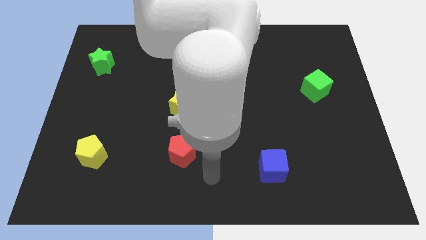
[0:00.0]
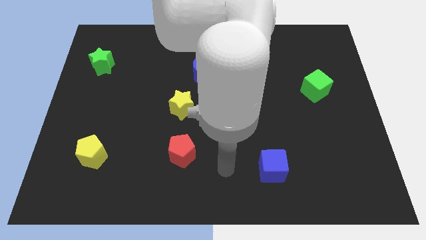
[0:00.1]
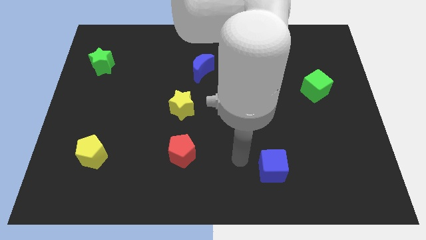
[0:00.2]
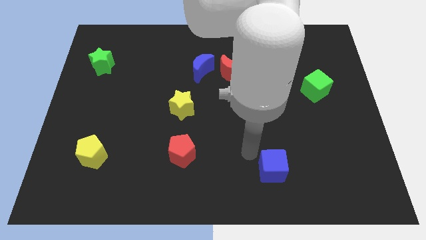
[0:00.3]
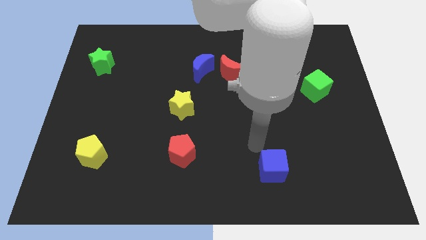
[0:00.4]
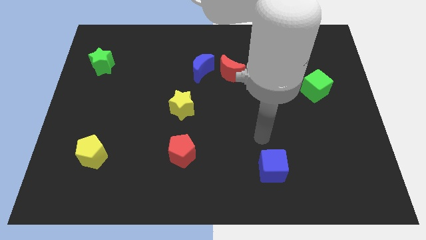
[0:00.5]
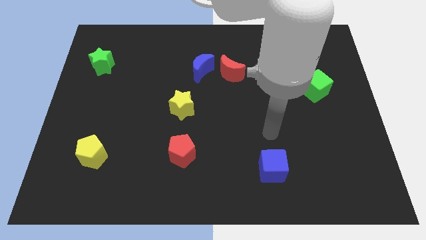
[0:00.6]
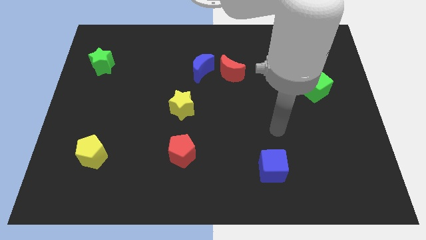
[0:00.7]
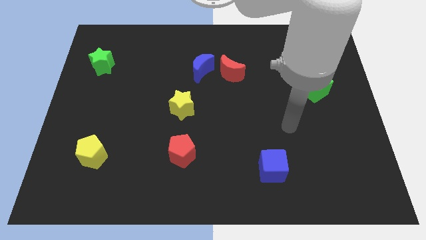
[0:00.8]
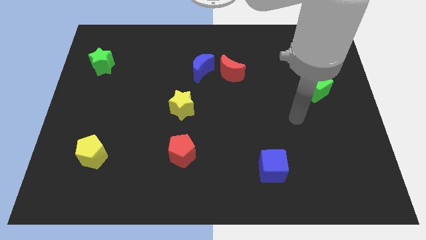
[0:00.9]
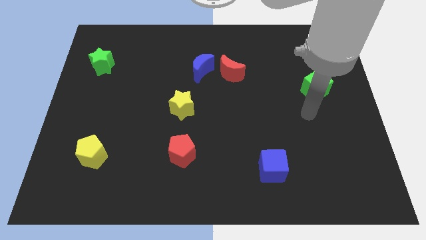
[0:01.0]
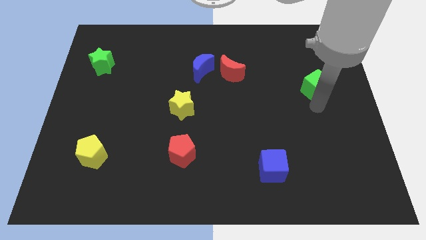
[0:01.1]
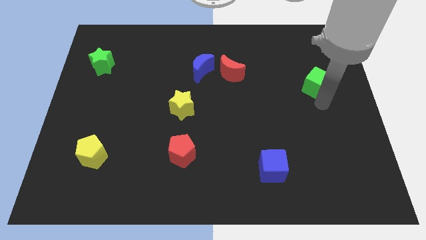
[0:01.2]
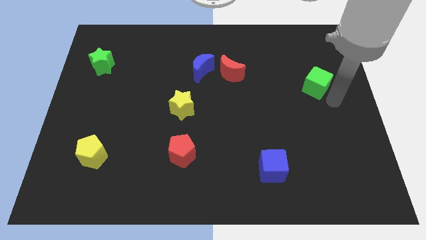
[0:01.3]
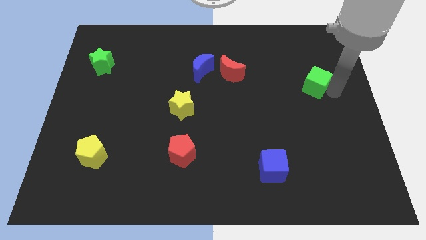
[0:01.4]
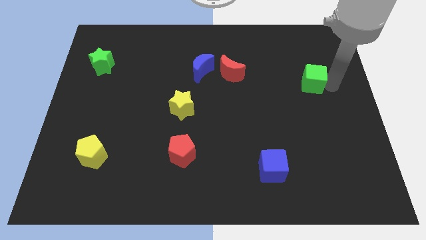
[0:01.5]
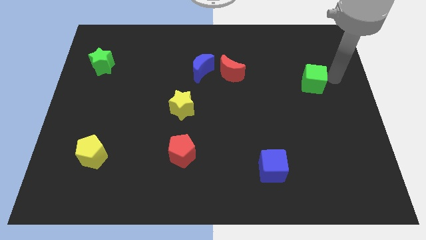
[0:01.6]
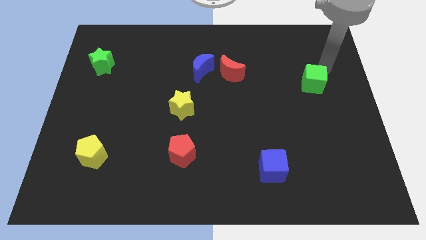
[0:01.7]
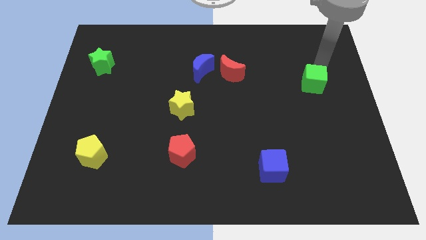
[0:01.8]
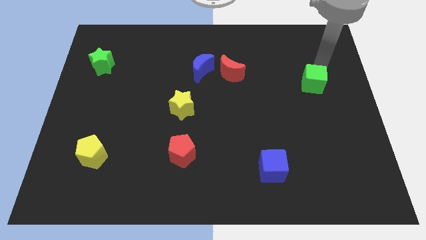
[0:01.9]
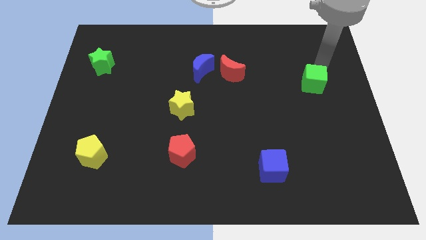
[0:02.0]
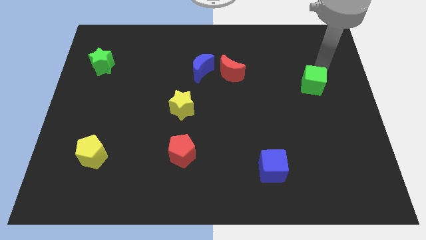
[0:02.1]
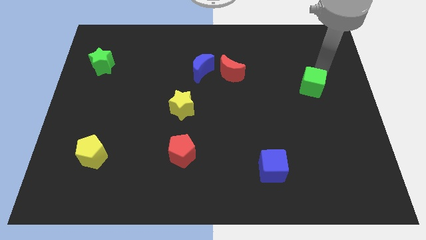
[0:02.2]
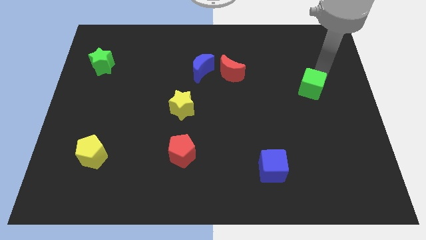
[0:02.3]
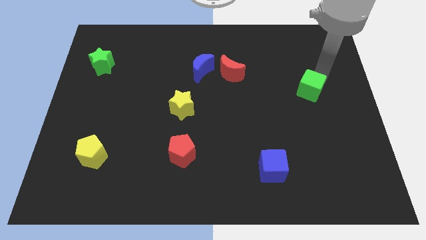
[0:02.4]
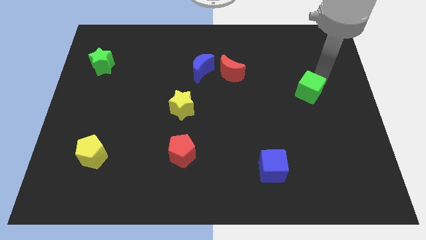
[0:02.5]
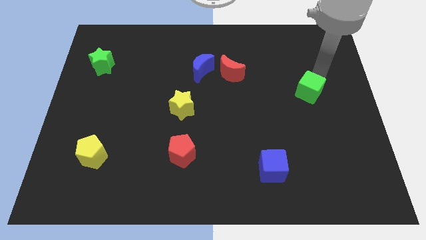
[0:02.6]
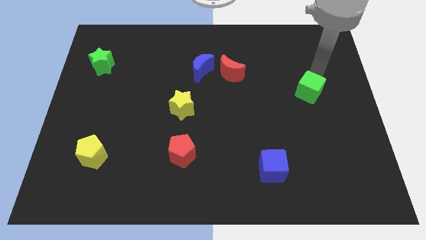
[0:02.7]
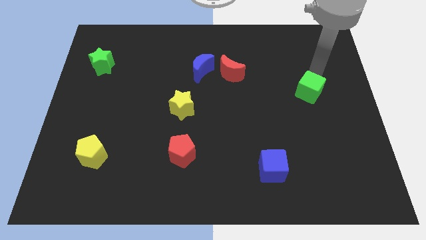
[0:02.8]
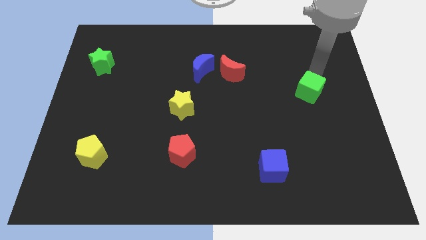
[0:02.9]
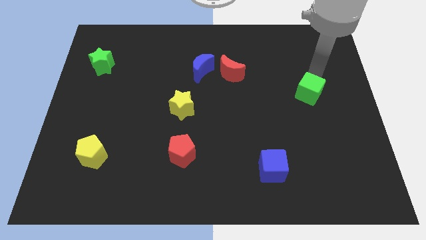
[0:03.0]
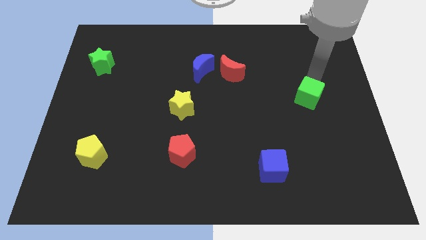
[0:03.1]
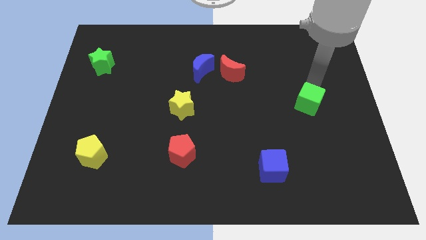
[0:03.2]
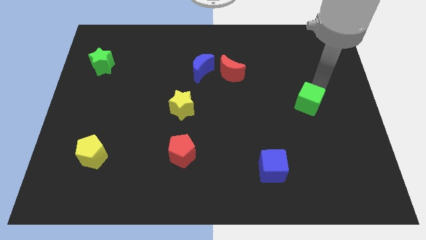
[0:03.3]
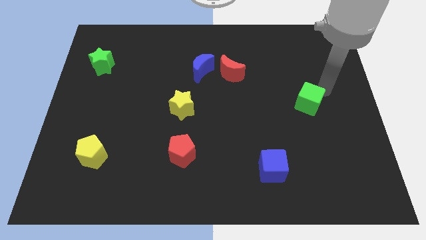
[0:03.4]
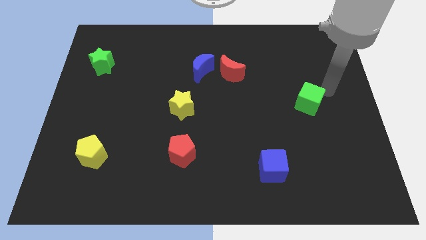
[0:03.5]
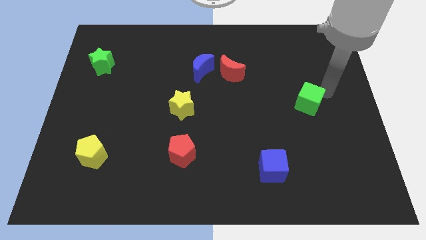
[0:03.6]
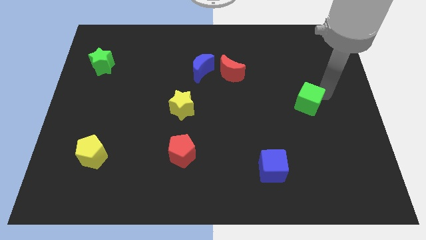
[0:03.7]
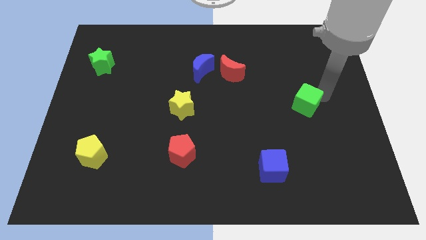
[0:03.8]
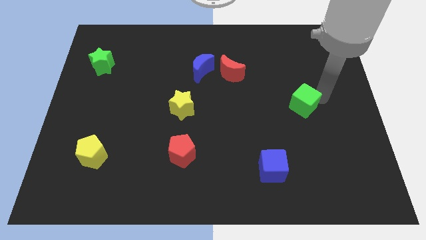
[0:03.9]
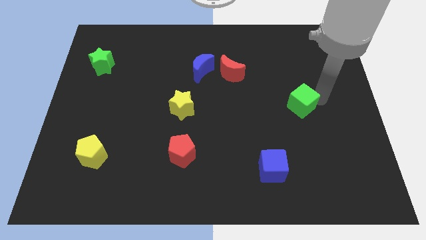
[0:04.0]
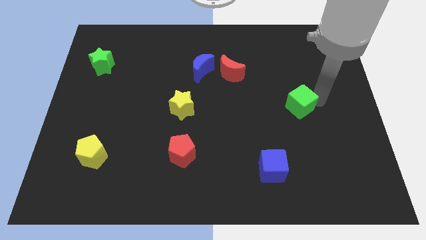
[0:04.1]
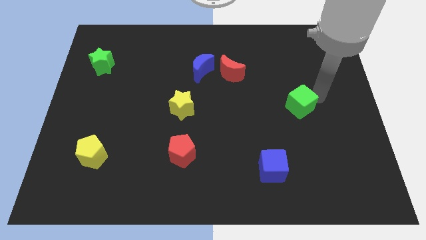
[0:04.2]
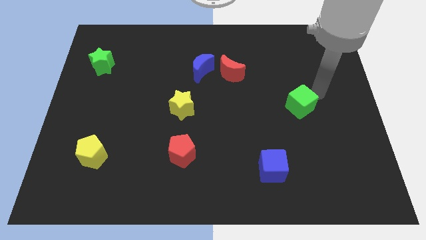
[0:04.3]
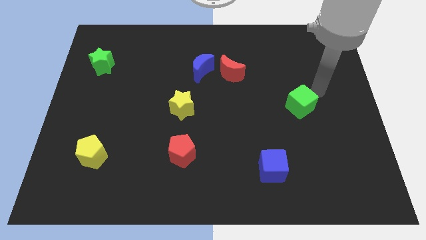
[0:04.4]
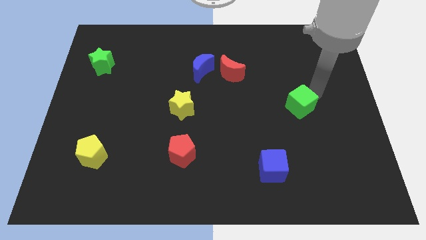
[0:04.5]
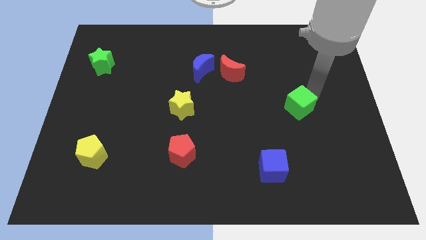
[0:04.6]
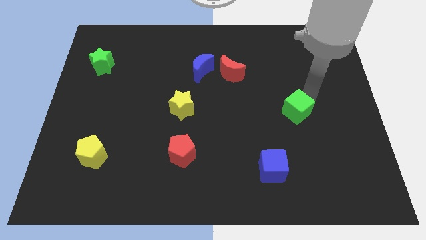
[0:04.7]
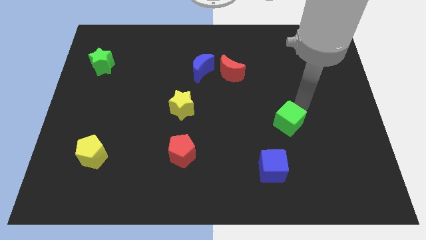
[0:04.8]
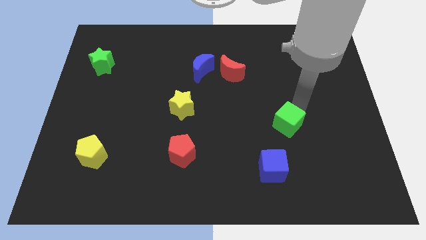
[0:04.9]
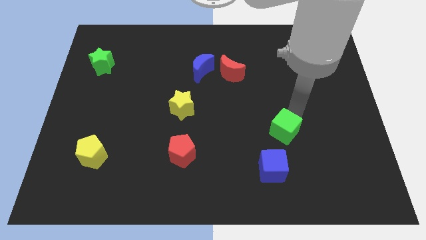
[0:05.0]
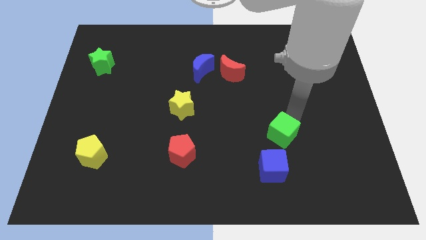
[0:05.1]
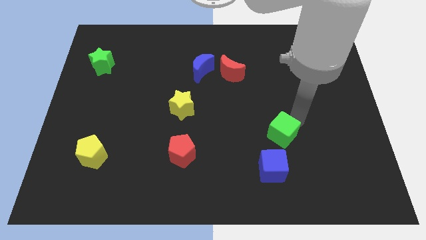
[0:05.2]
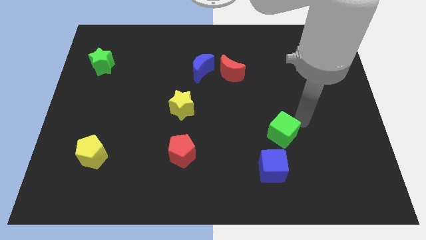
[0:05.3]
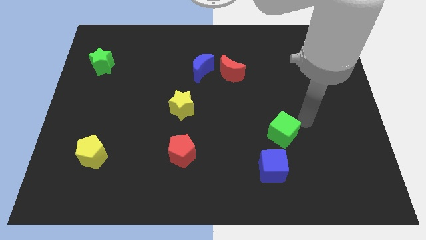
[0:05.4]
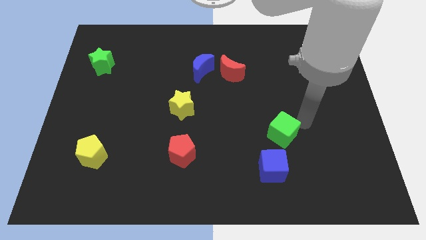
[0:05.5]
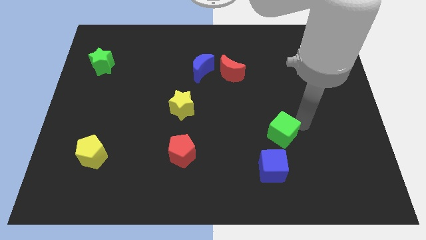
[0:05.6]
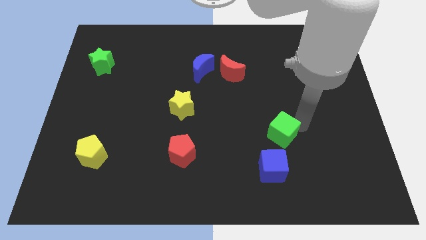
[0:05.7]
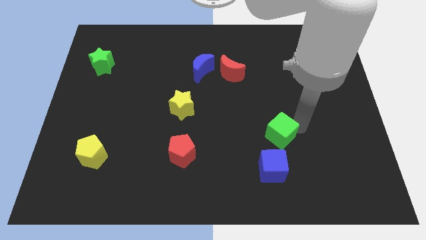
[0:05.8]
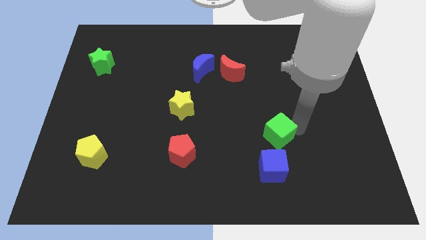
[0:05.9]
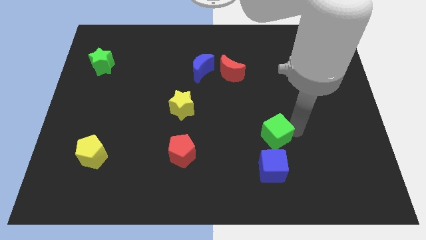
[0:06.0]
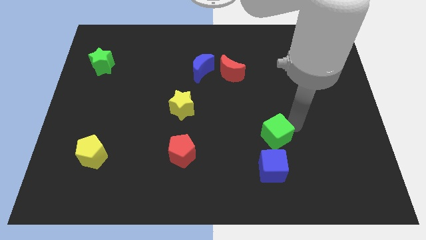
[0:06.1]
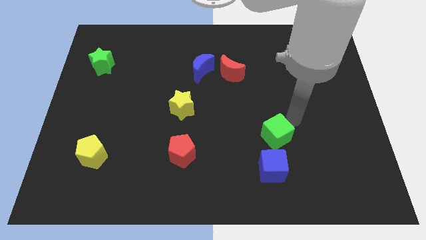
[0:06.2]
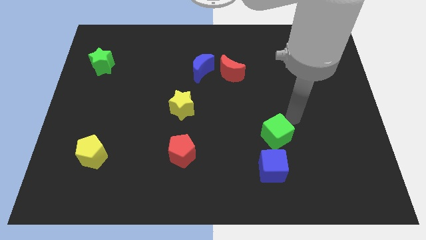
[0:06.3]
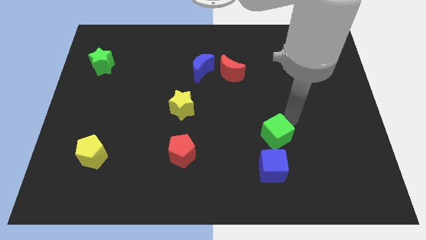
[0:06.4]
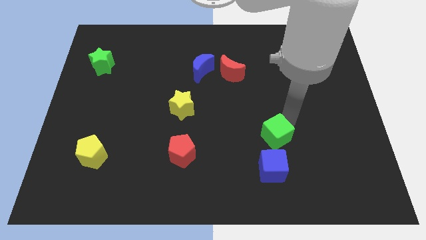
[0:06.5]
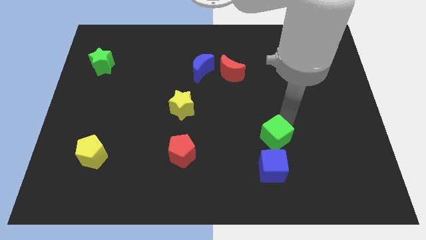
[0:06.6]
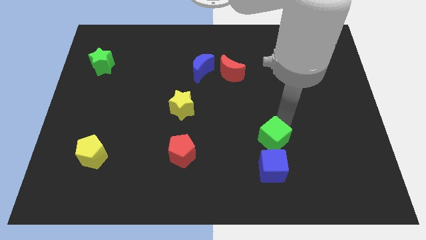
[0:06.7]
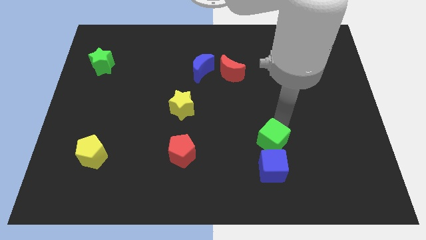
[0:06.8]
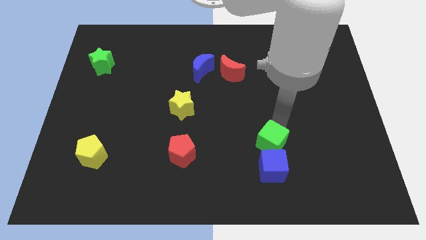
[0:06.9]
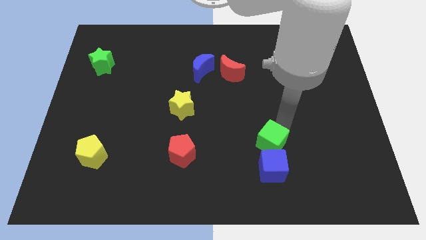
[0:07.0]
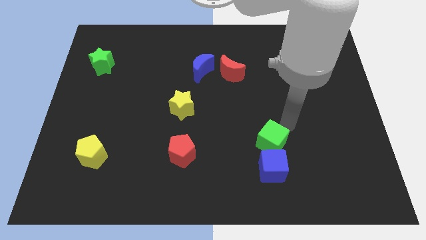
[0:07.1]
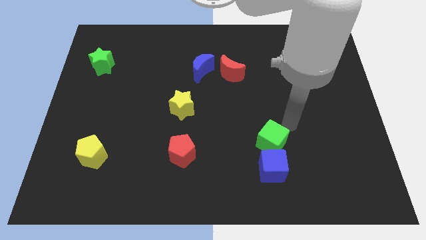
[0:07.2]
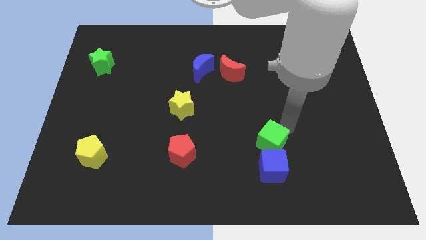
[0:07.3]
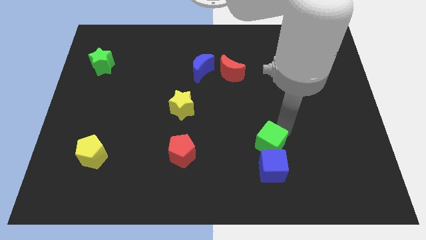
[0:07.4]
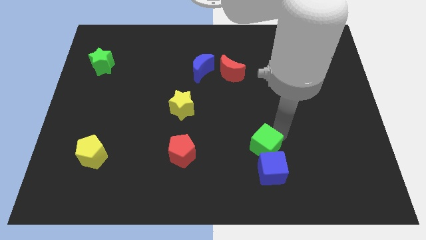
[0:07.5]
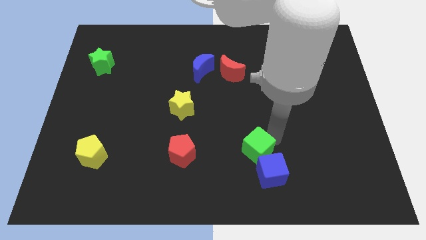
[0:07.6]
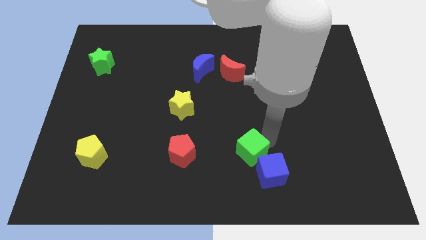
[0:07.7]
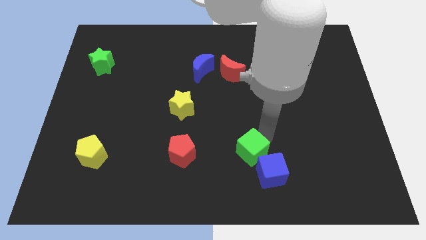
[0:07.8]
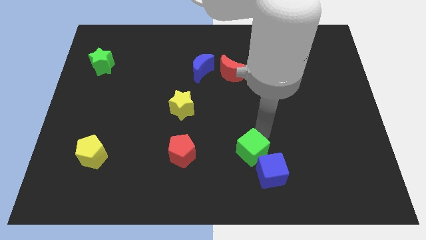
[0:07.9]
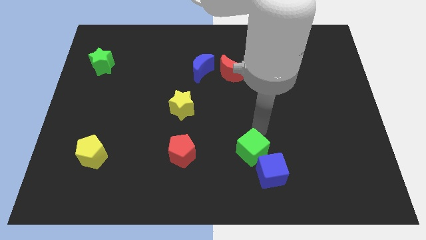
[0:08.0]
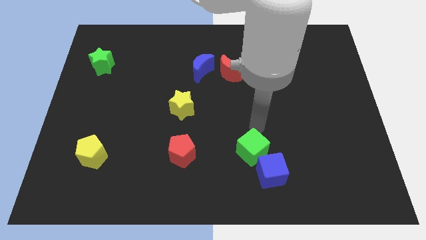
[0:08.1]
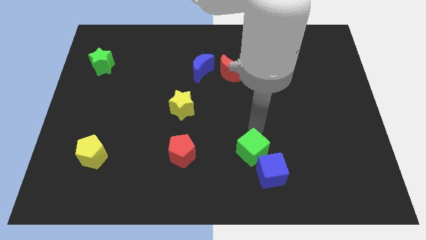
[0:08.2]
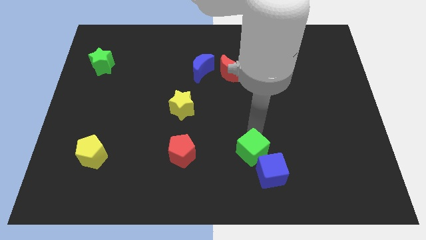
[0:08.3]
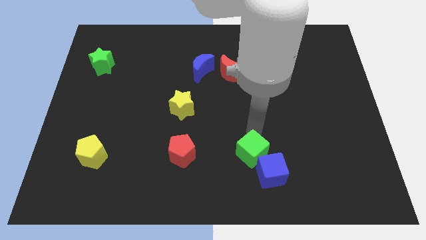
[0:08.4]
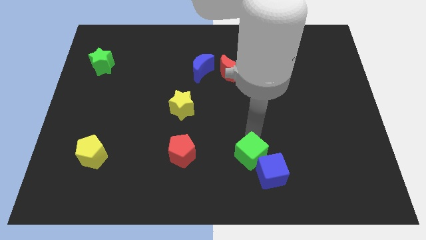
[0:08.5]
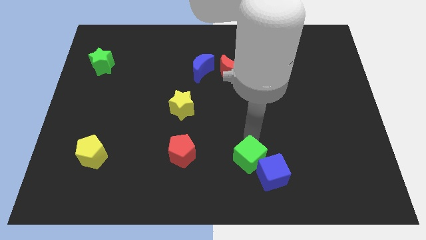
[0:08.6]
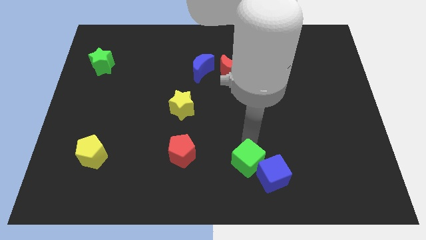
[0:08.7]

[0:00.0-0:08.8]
push the green cube to the bottom
